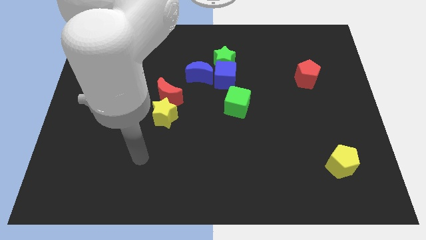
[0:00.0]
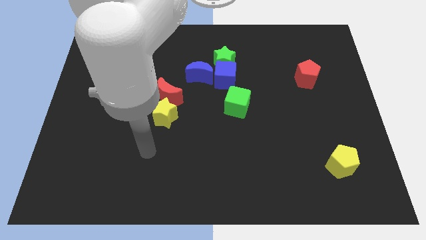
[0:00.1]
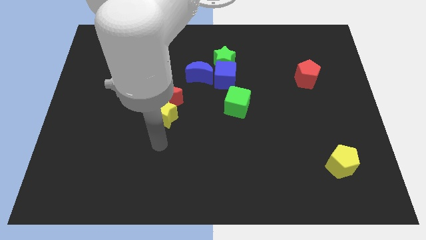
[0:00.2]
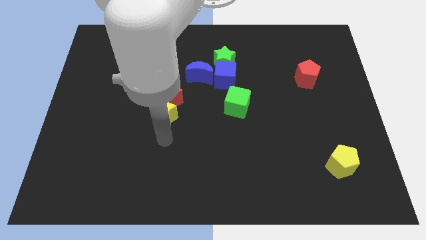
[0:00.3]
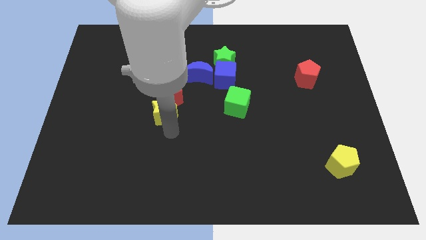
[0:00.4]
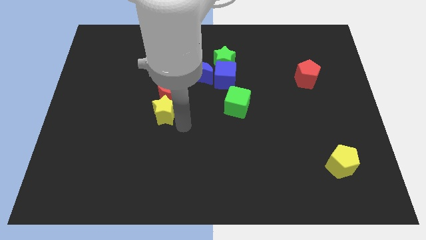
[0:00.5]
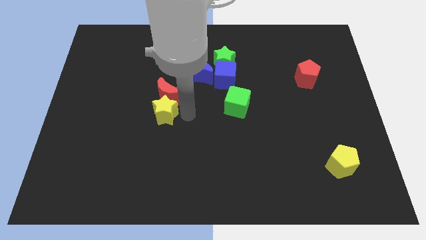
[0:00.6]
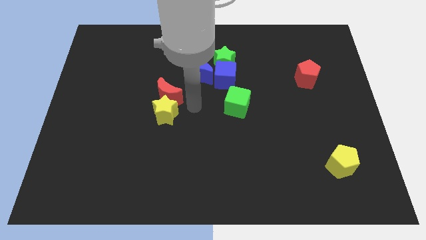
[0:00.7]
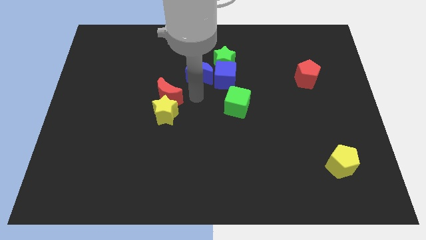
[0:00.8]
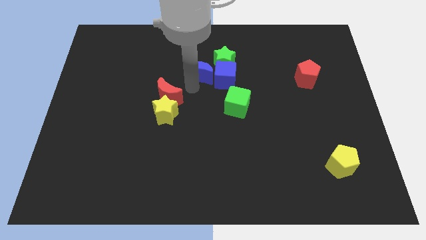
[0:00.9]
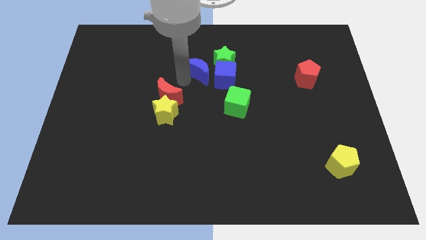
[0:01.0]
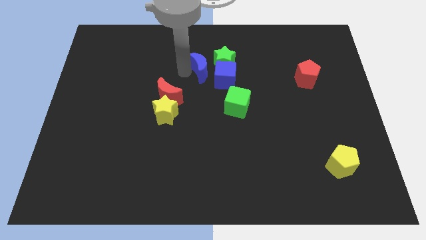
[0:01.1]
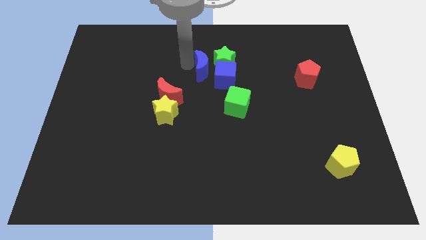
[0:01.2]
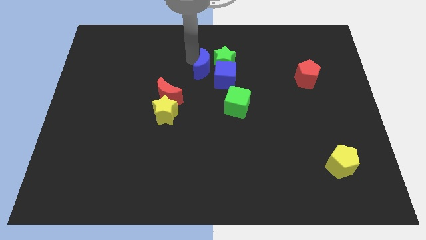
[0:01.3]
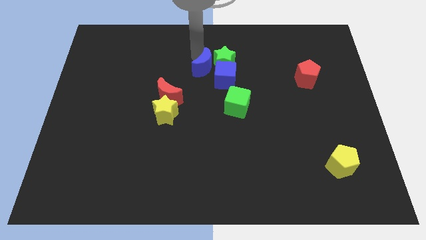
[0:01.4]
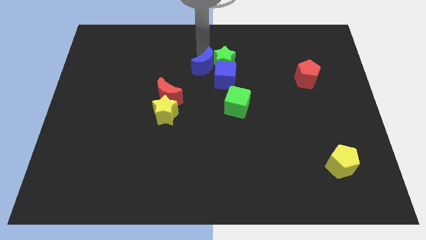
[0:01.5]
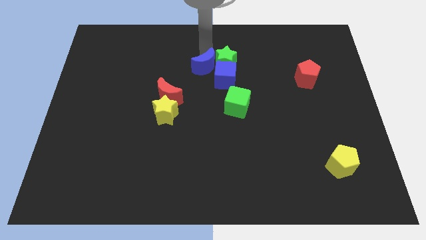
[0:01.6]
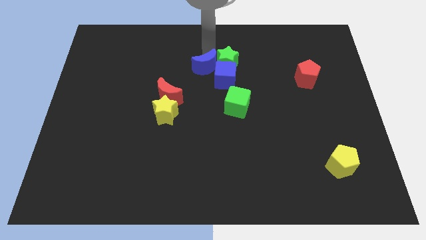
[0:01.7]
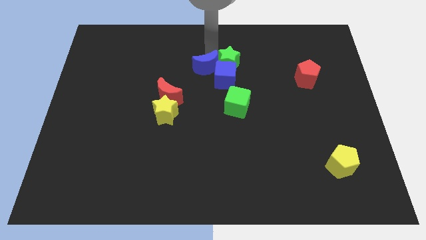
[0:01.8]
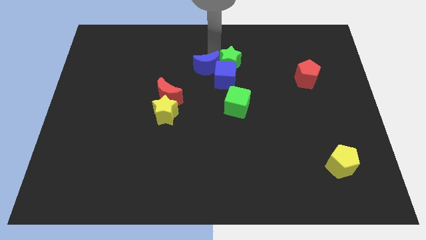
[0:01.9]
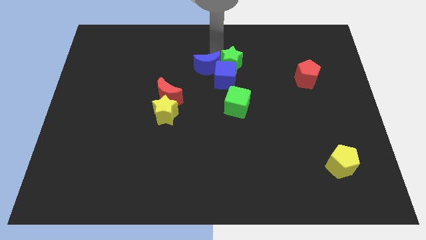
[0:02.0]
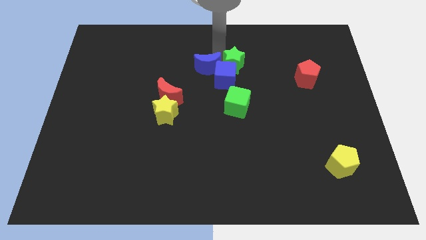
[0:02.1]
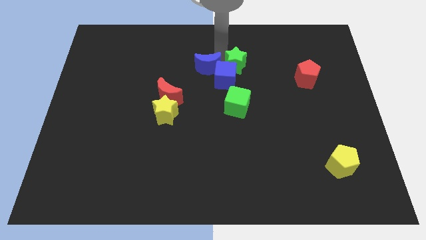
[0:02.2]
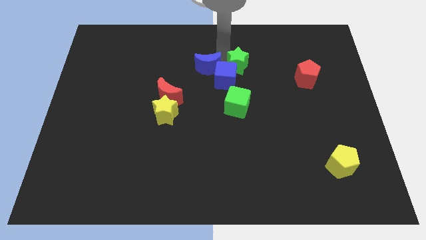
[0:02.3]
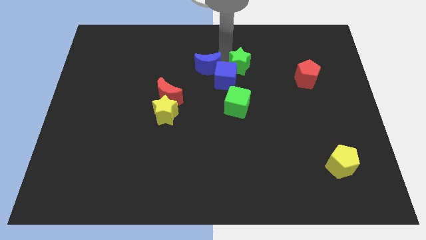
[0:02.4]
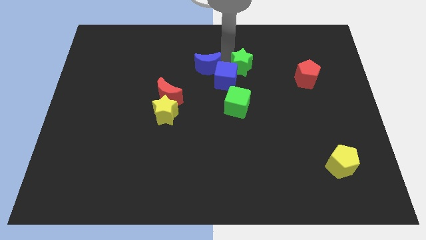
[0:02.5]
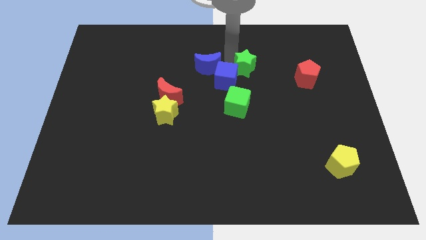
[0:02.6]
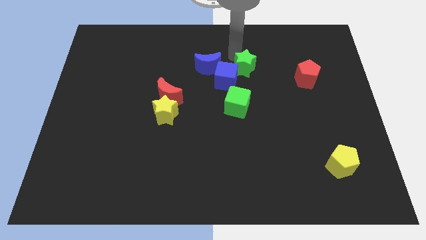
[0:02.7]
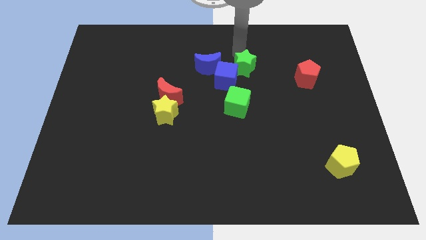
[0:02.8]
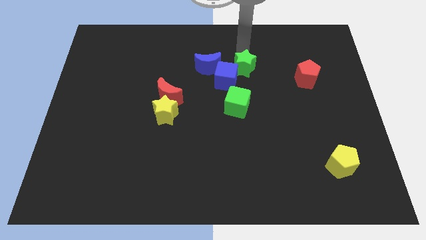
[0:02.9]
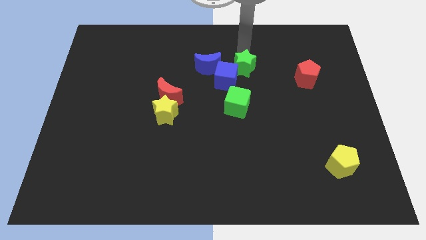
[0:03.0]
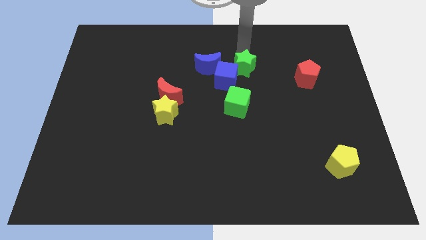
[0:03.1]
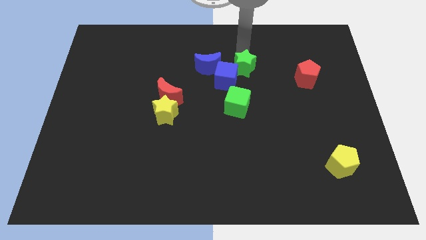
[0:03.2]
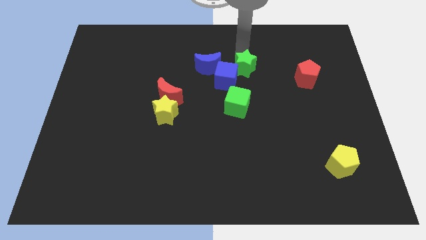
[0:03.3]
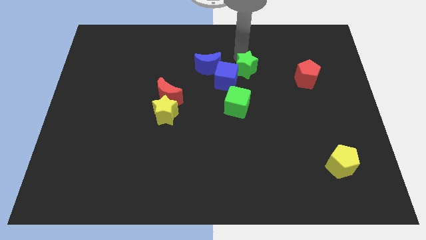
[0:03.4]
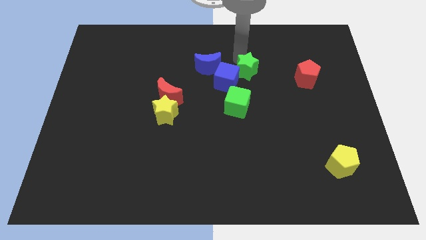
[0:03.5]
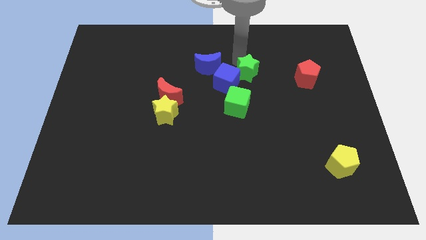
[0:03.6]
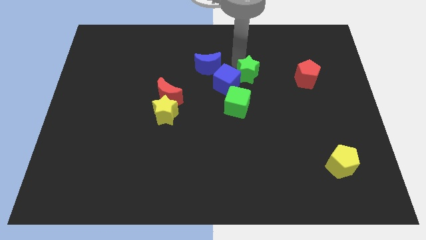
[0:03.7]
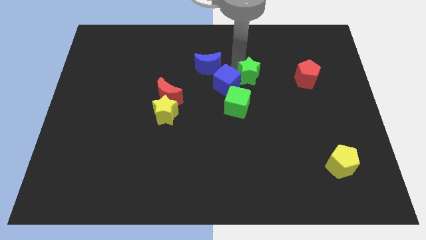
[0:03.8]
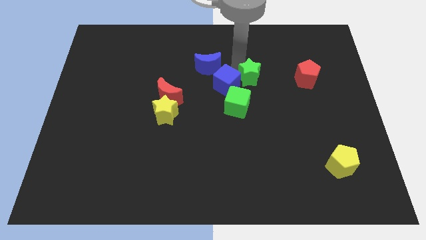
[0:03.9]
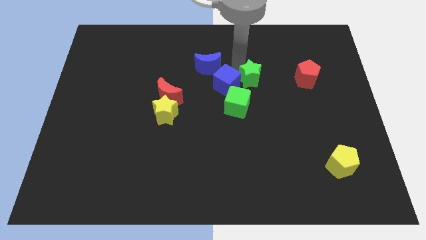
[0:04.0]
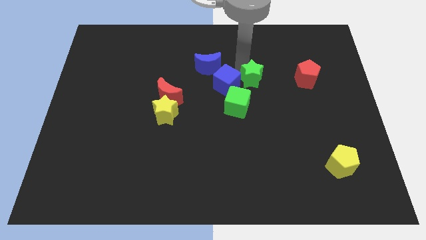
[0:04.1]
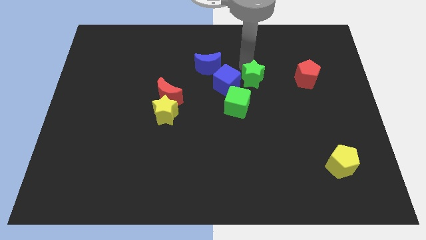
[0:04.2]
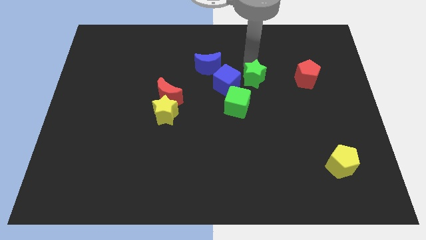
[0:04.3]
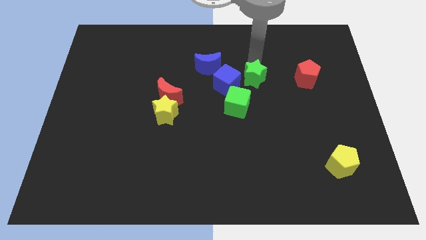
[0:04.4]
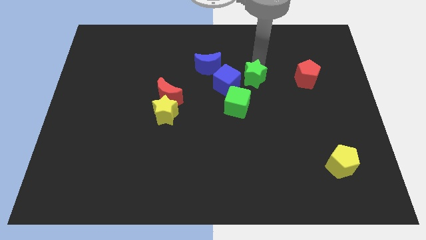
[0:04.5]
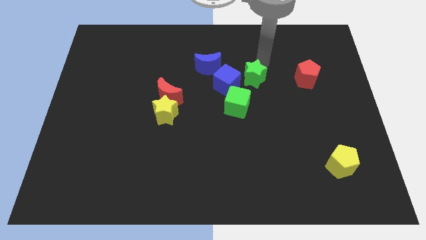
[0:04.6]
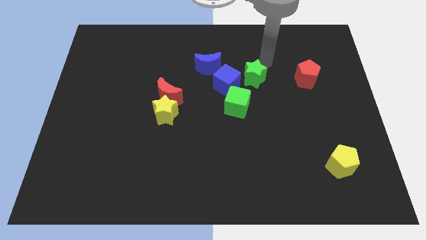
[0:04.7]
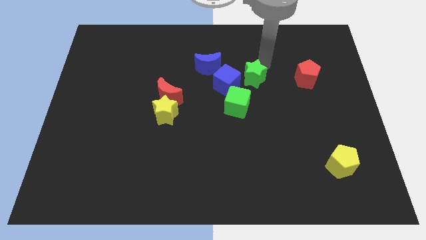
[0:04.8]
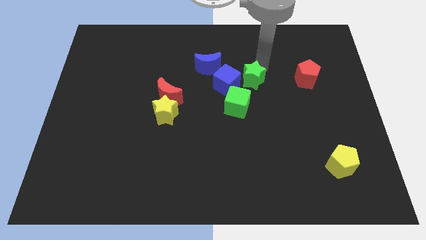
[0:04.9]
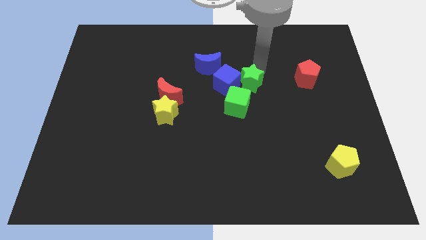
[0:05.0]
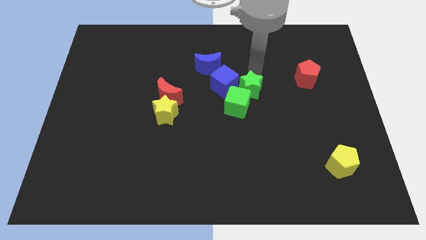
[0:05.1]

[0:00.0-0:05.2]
slide the green star to the green cube

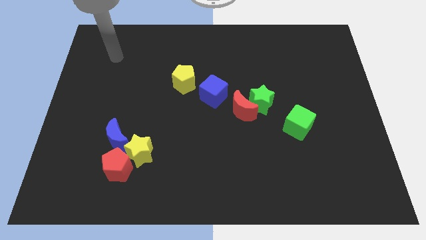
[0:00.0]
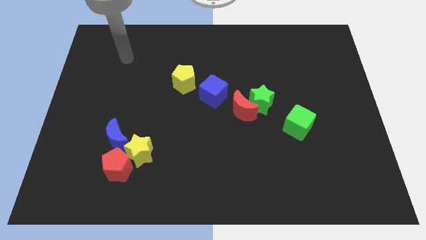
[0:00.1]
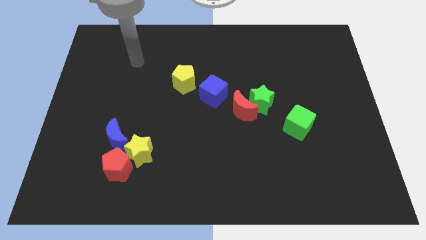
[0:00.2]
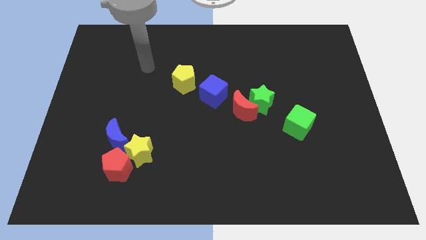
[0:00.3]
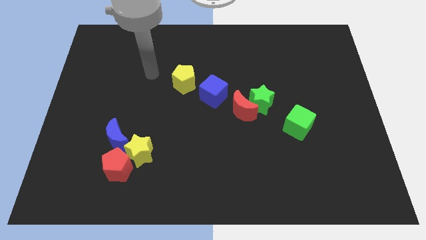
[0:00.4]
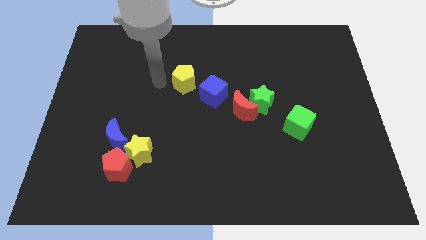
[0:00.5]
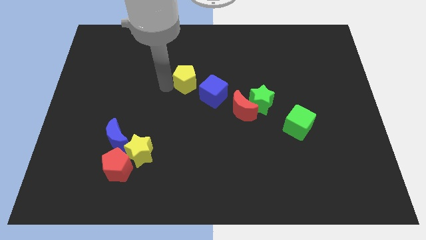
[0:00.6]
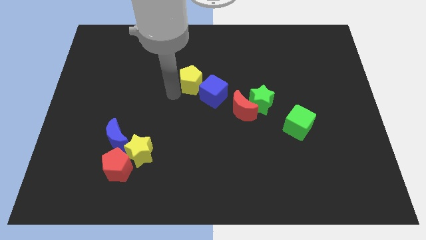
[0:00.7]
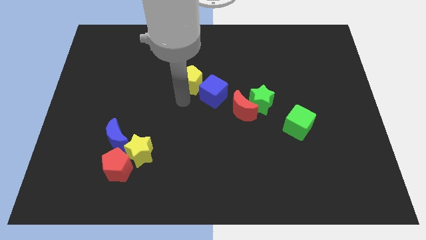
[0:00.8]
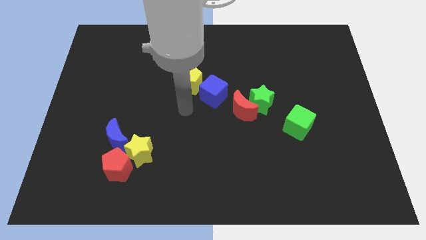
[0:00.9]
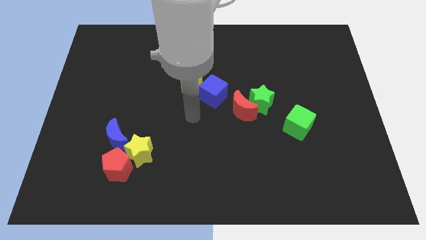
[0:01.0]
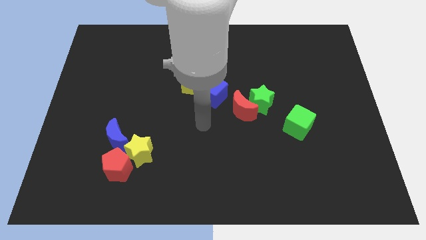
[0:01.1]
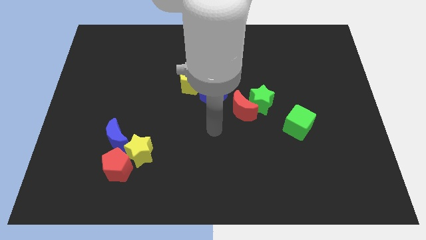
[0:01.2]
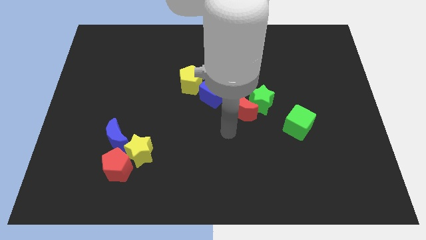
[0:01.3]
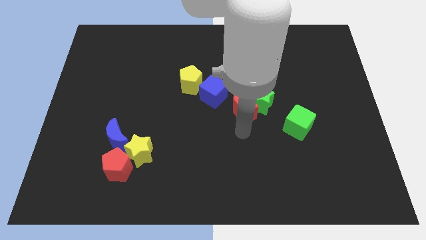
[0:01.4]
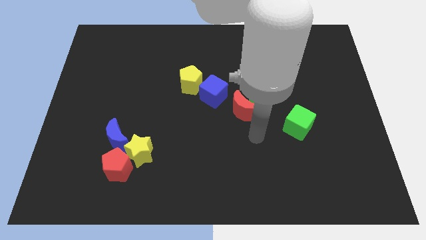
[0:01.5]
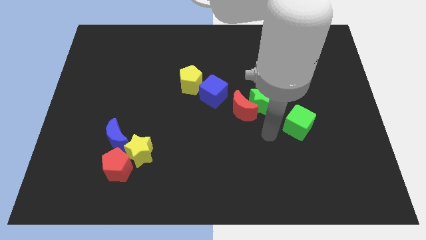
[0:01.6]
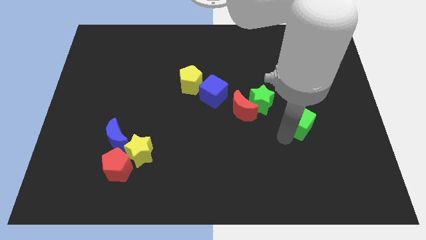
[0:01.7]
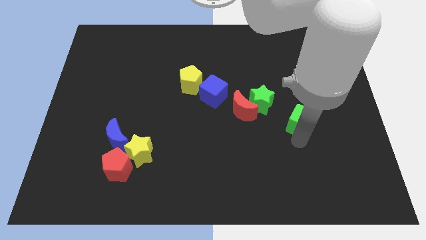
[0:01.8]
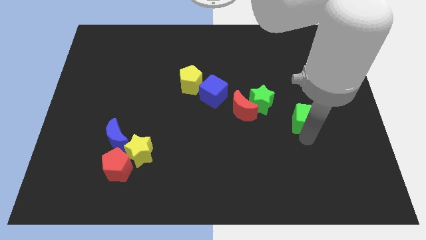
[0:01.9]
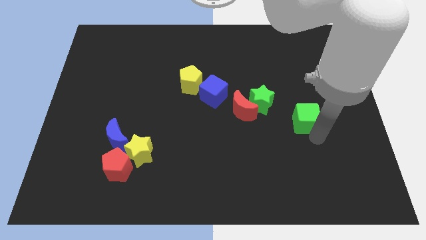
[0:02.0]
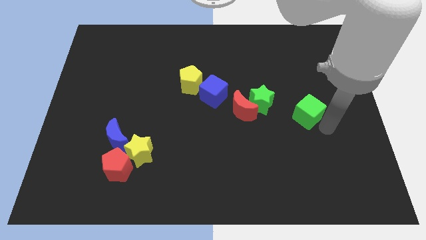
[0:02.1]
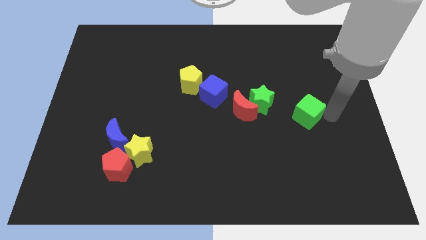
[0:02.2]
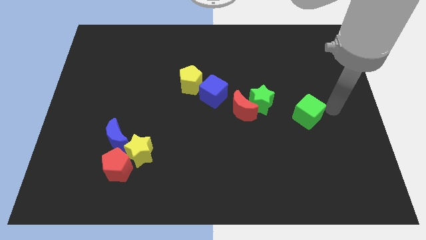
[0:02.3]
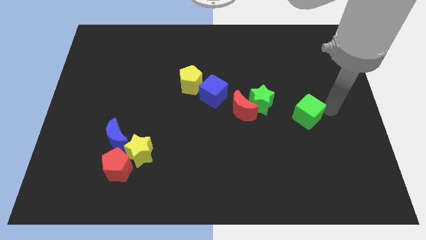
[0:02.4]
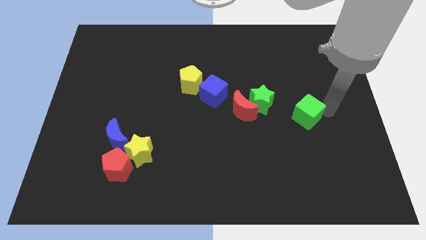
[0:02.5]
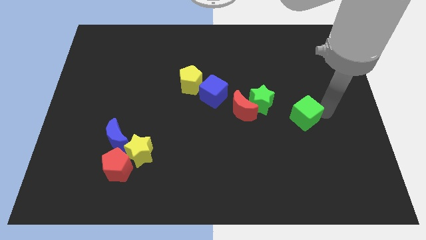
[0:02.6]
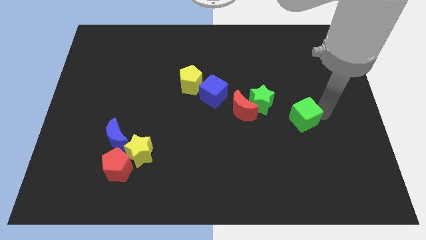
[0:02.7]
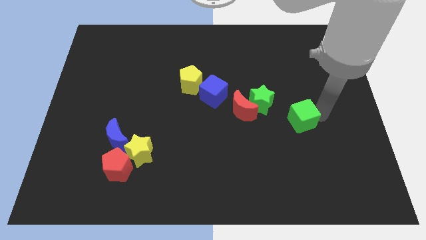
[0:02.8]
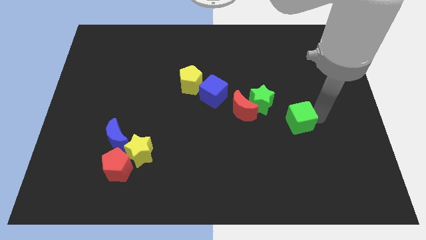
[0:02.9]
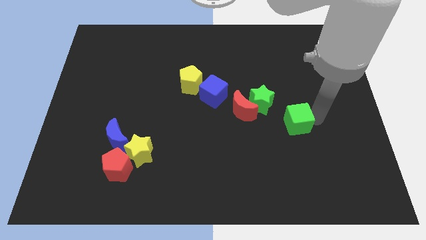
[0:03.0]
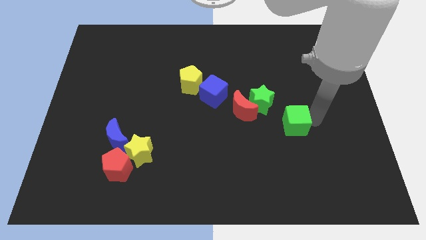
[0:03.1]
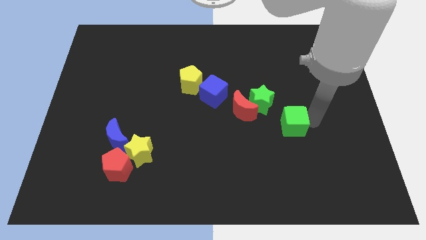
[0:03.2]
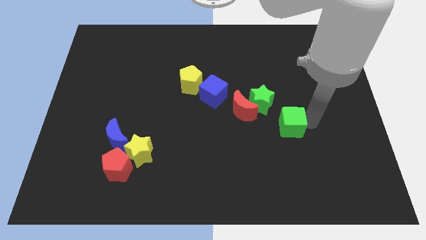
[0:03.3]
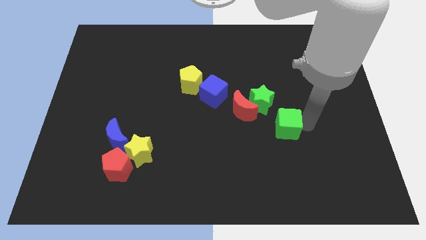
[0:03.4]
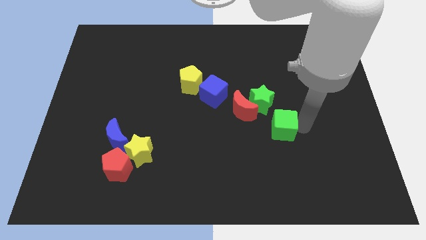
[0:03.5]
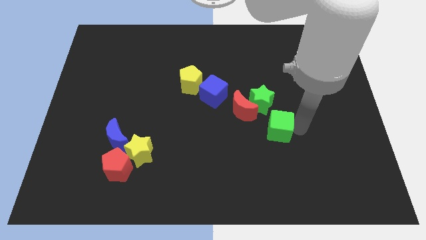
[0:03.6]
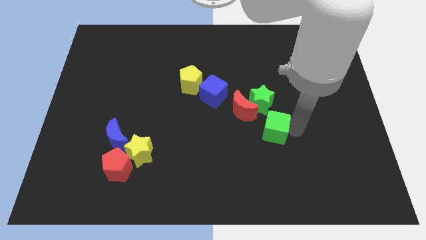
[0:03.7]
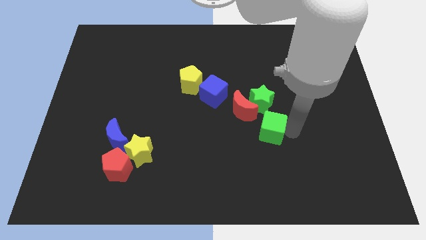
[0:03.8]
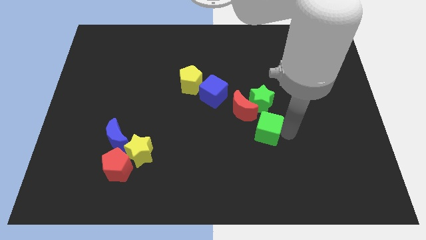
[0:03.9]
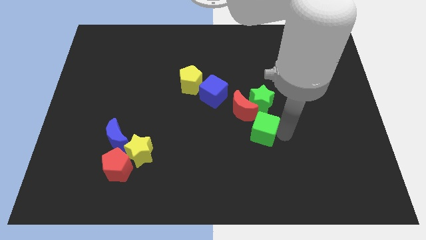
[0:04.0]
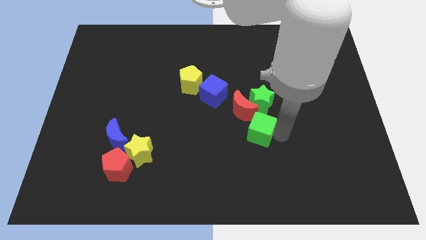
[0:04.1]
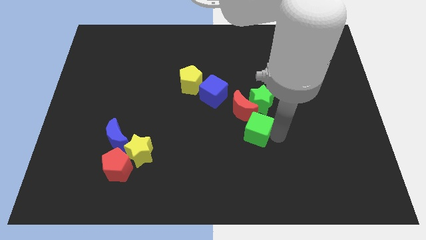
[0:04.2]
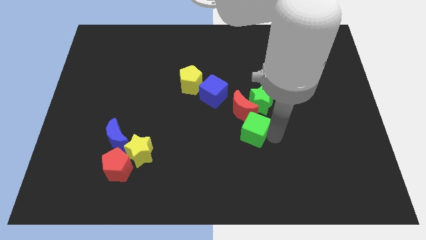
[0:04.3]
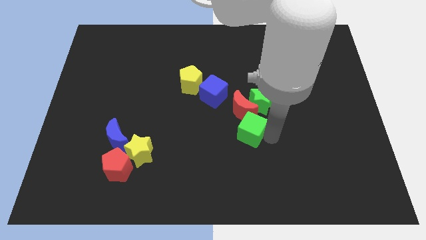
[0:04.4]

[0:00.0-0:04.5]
move the green cube towards the red moon
